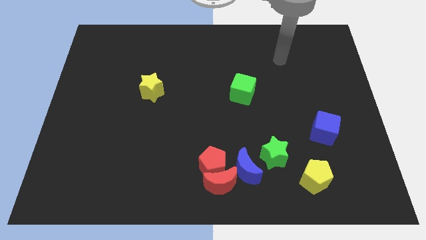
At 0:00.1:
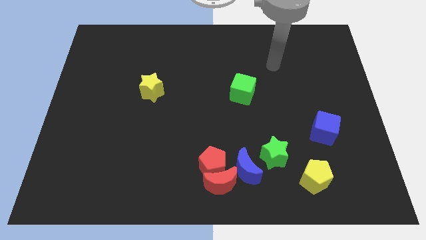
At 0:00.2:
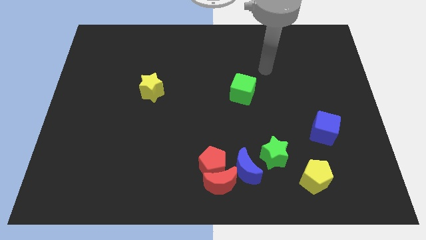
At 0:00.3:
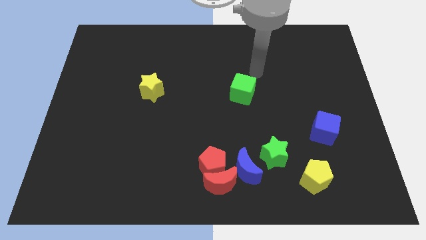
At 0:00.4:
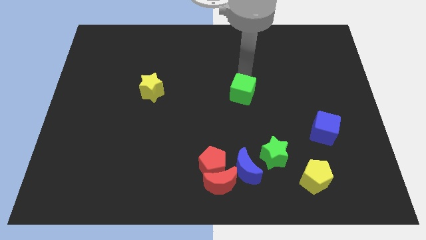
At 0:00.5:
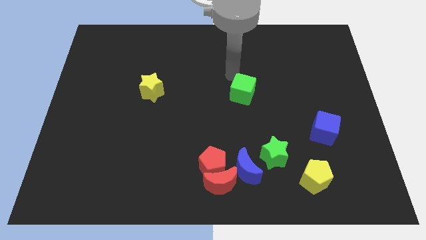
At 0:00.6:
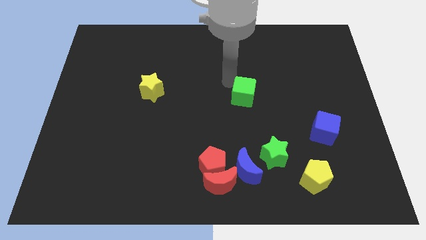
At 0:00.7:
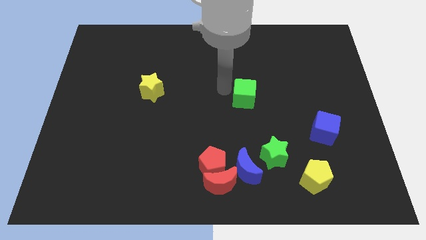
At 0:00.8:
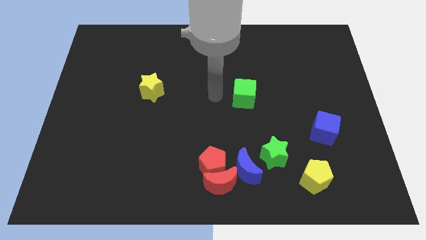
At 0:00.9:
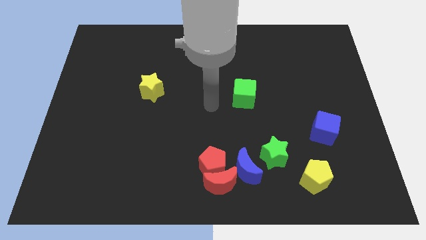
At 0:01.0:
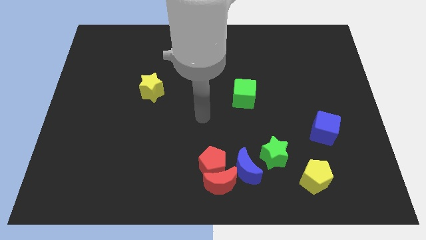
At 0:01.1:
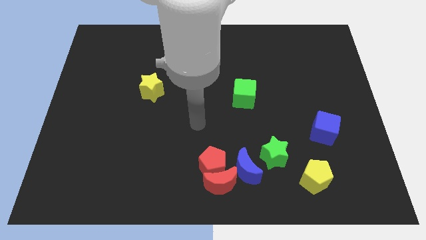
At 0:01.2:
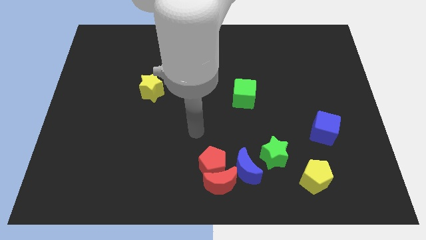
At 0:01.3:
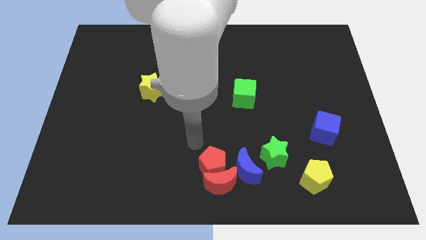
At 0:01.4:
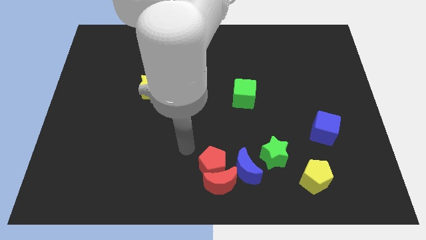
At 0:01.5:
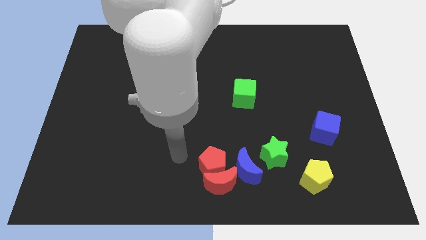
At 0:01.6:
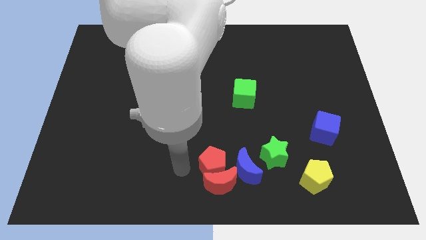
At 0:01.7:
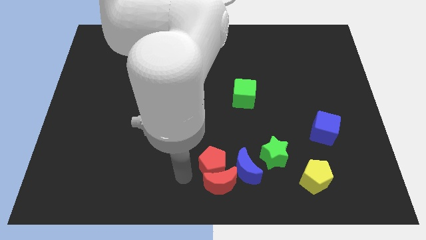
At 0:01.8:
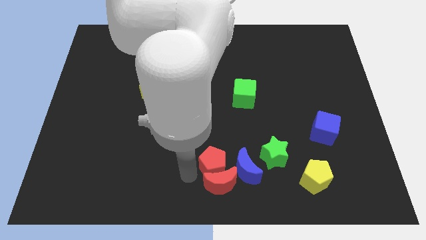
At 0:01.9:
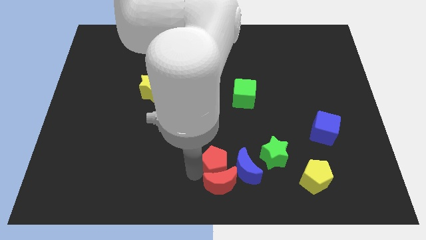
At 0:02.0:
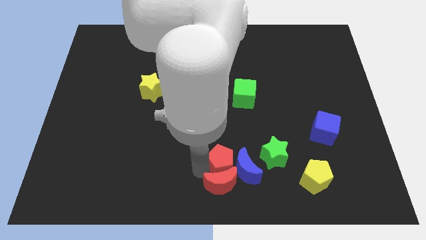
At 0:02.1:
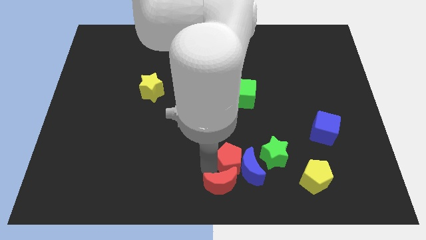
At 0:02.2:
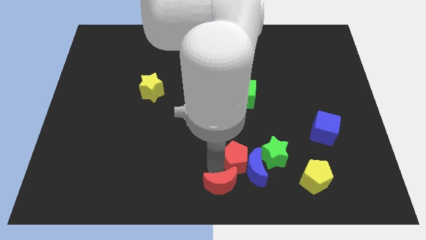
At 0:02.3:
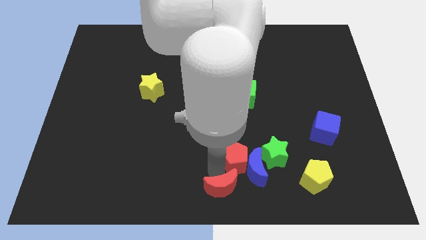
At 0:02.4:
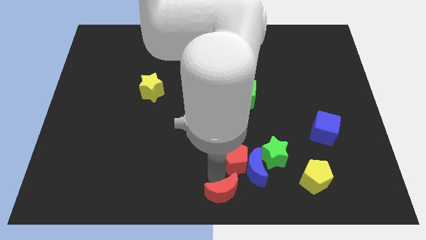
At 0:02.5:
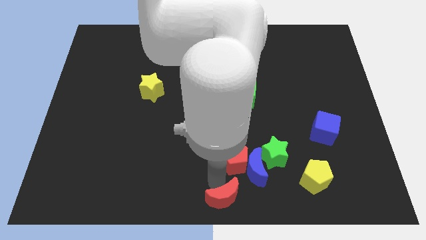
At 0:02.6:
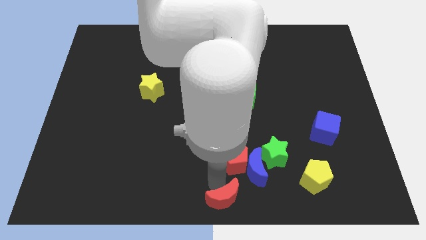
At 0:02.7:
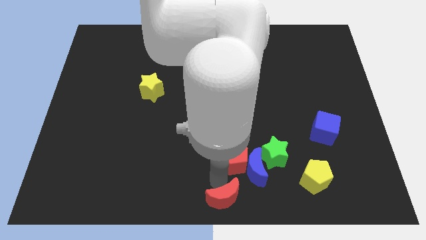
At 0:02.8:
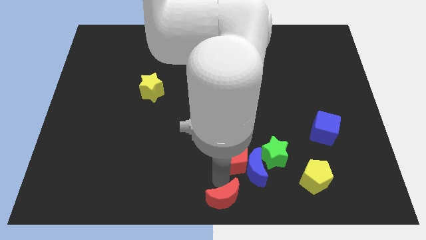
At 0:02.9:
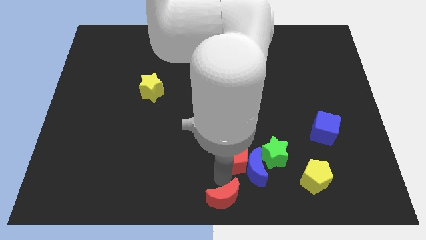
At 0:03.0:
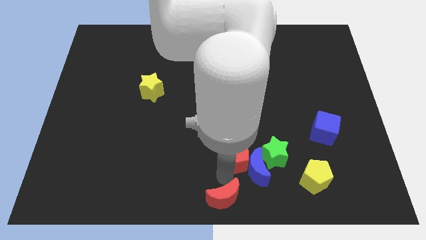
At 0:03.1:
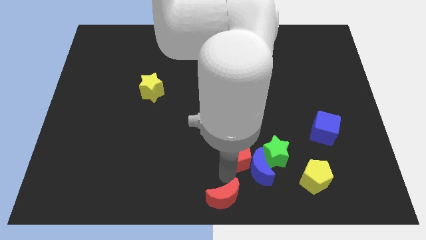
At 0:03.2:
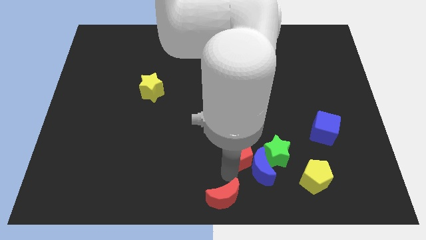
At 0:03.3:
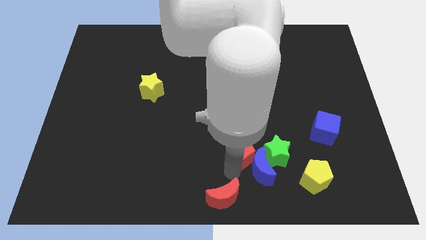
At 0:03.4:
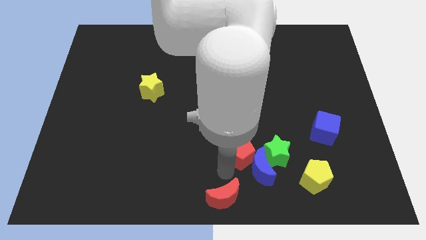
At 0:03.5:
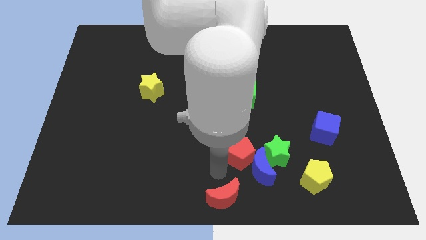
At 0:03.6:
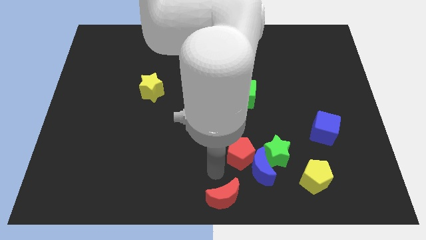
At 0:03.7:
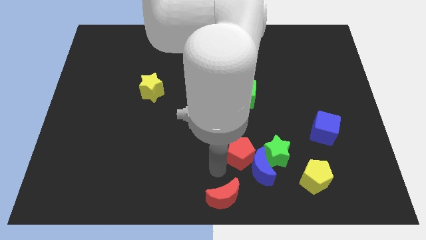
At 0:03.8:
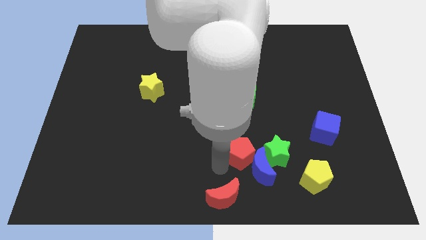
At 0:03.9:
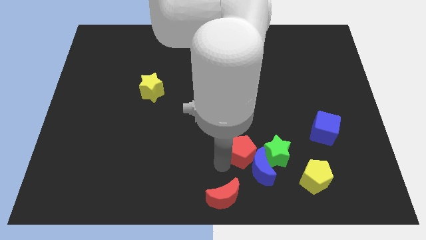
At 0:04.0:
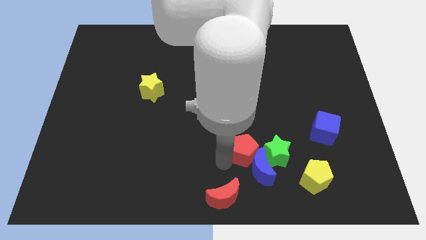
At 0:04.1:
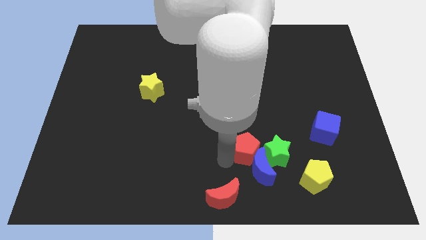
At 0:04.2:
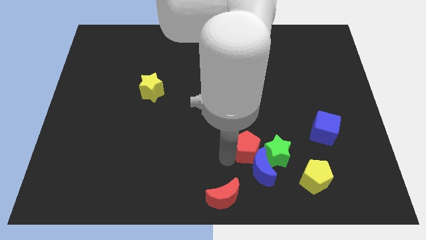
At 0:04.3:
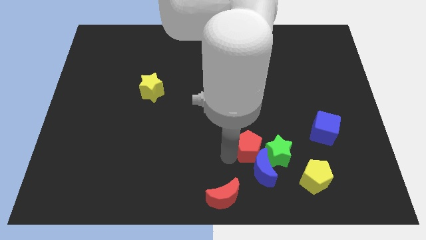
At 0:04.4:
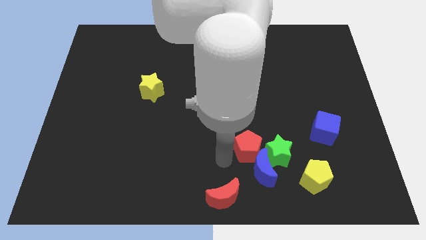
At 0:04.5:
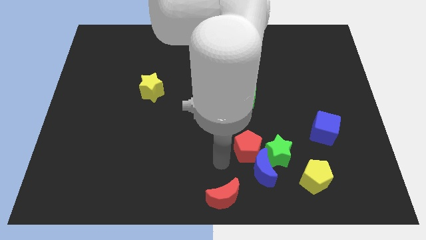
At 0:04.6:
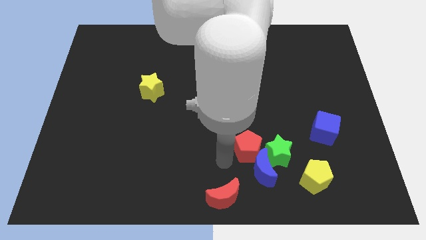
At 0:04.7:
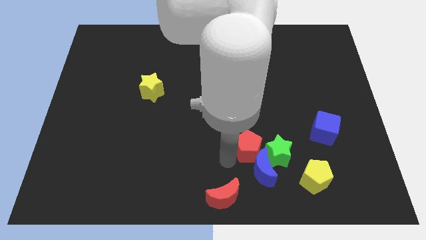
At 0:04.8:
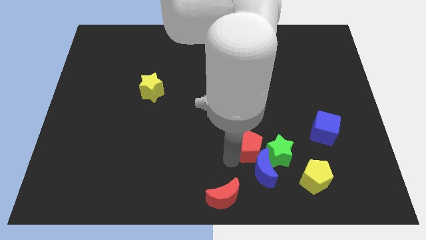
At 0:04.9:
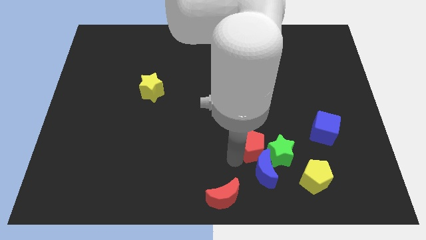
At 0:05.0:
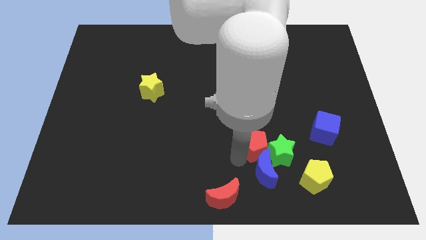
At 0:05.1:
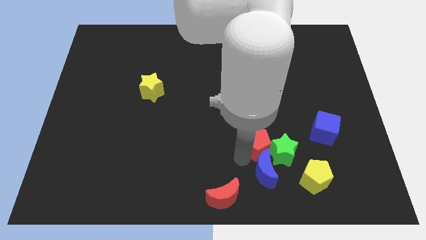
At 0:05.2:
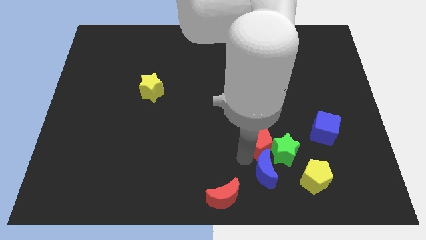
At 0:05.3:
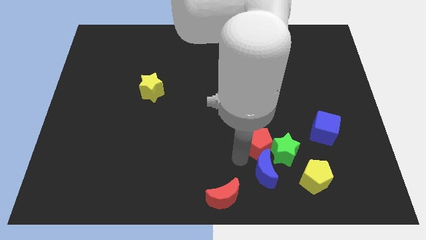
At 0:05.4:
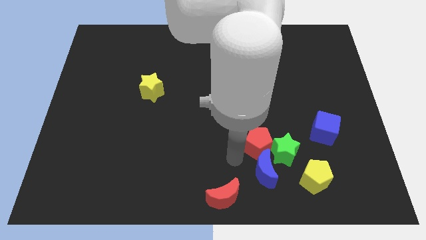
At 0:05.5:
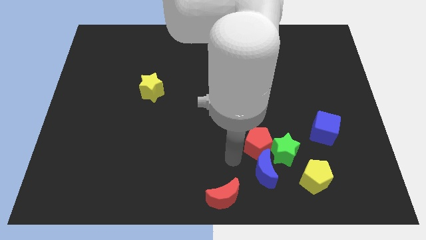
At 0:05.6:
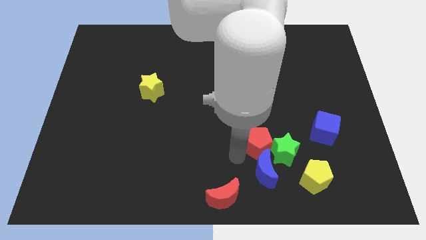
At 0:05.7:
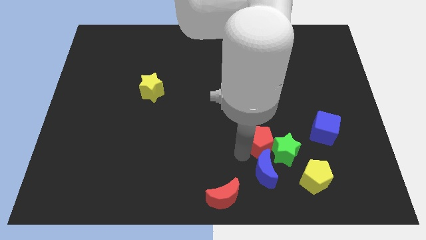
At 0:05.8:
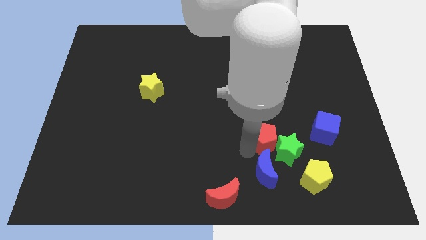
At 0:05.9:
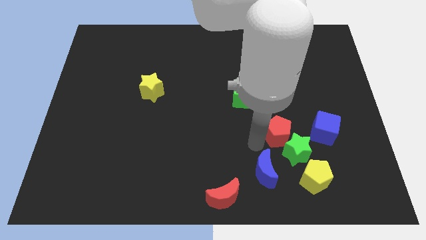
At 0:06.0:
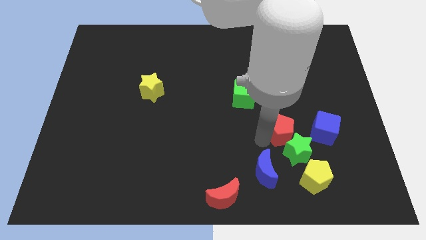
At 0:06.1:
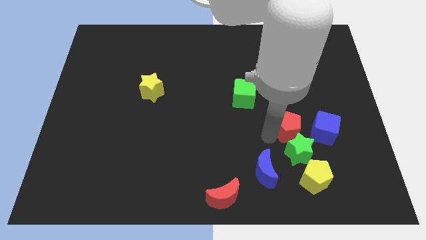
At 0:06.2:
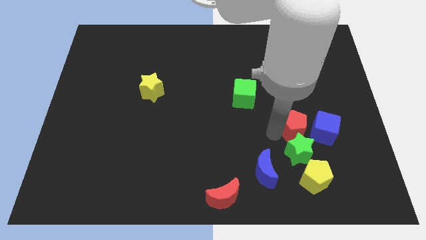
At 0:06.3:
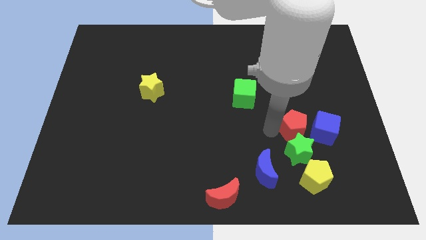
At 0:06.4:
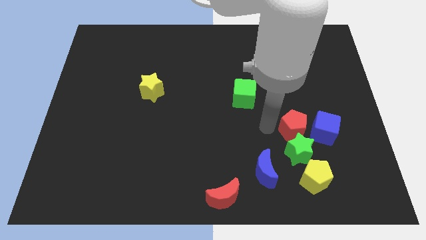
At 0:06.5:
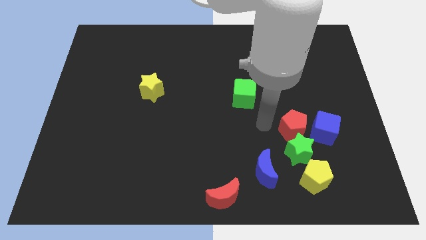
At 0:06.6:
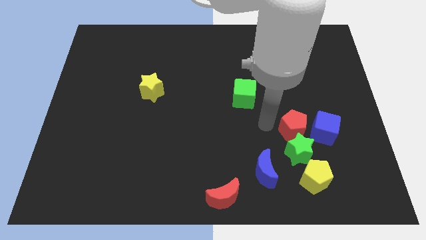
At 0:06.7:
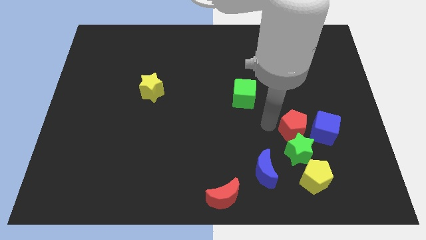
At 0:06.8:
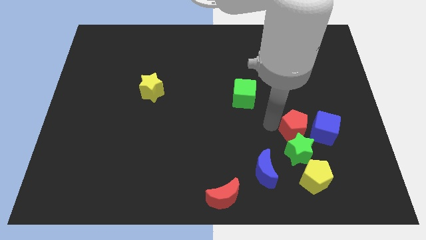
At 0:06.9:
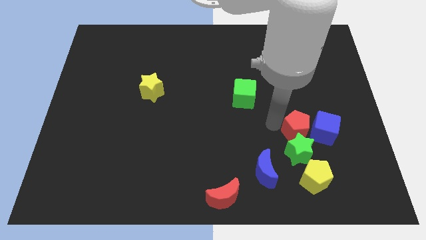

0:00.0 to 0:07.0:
push the red pentagon next to the blue cube
